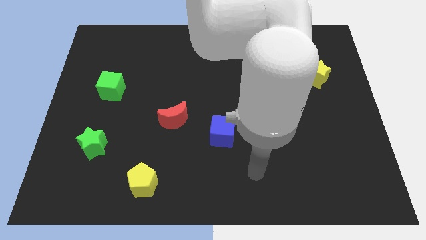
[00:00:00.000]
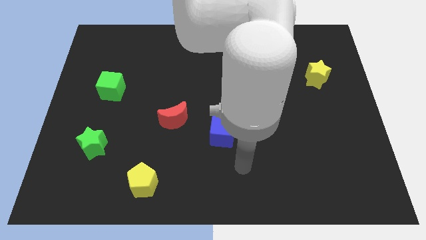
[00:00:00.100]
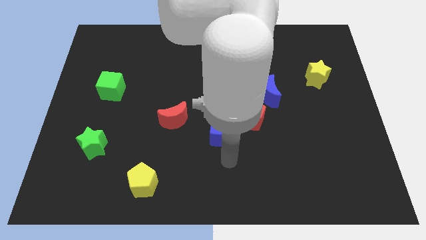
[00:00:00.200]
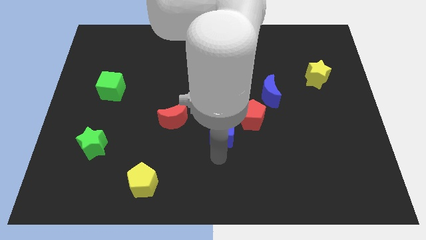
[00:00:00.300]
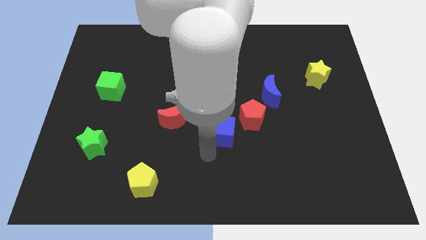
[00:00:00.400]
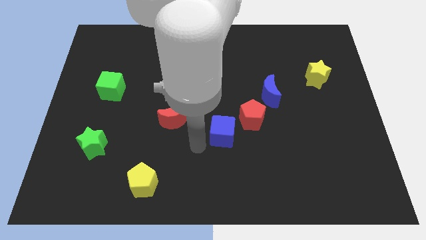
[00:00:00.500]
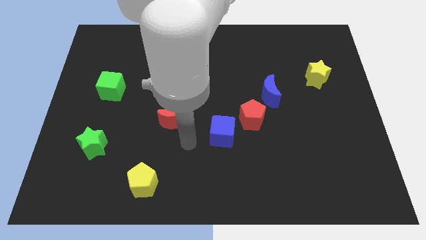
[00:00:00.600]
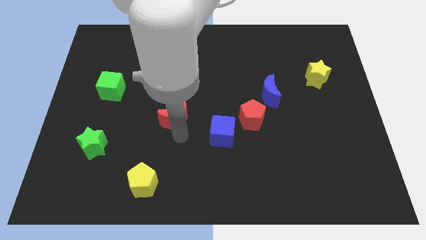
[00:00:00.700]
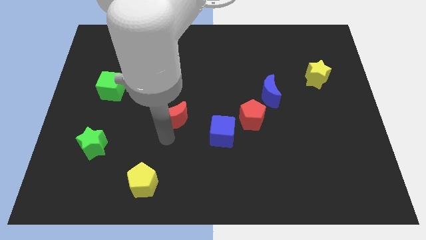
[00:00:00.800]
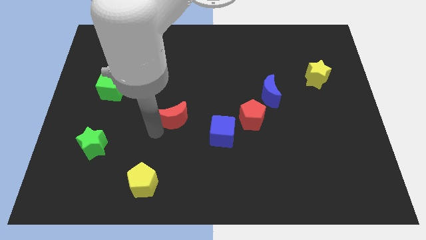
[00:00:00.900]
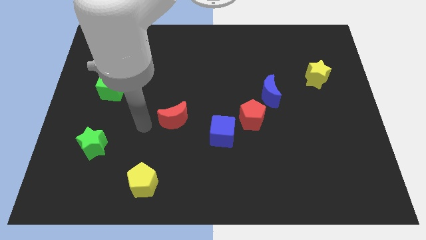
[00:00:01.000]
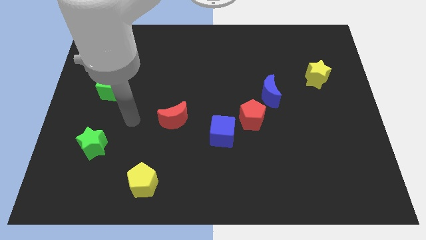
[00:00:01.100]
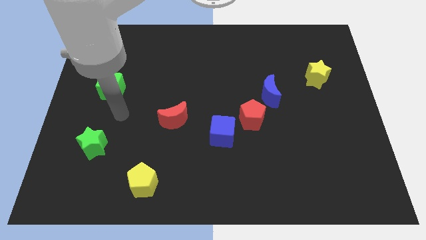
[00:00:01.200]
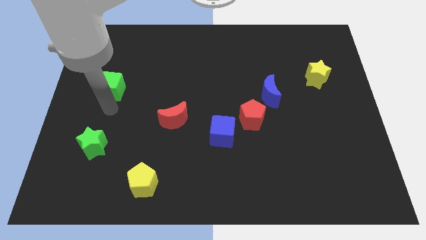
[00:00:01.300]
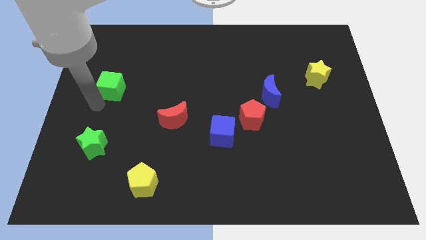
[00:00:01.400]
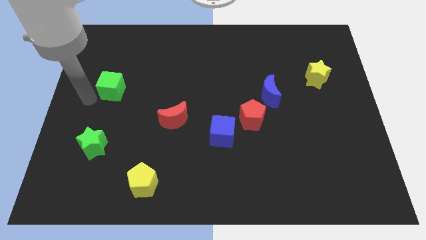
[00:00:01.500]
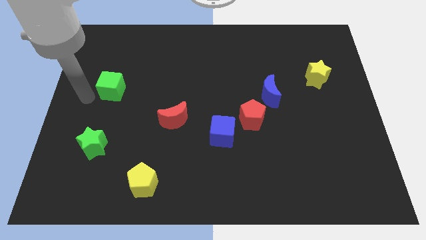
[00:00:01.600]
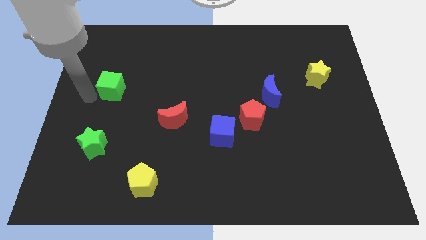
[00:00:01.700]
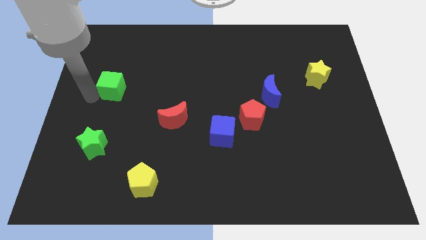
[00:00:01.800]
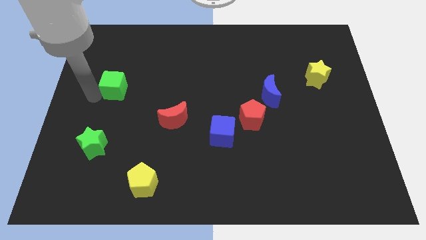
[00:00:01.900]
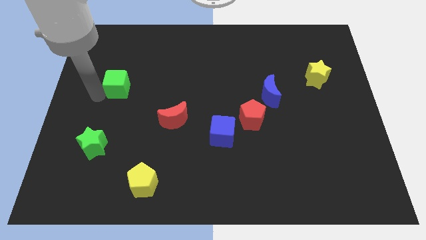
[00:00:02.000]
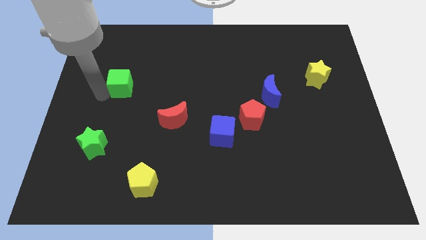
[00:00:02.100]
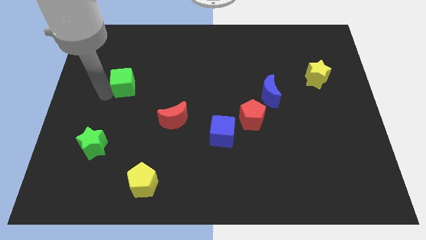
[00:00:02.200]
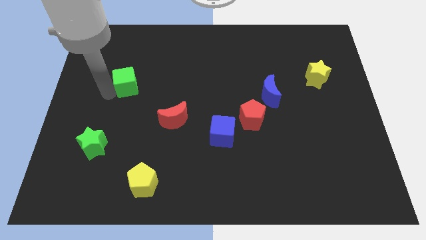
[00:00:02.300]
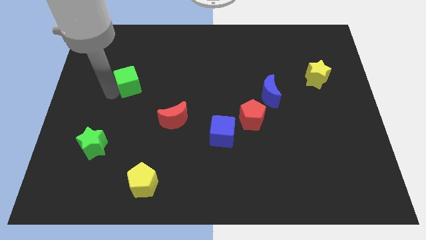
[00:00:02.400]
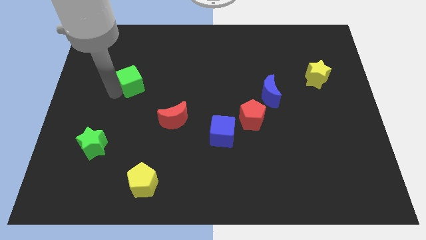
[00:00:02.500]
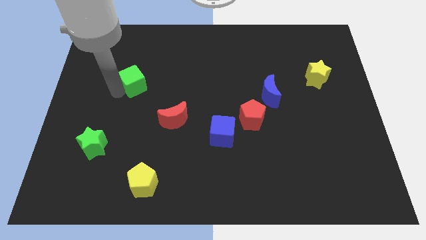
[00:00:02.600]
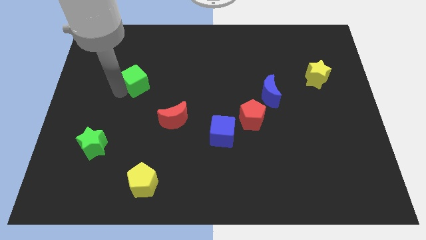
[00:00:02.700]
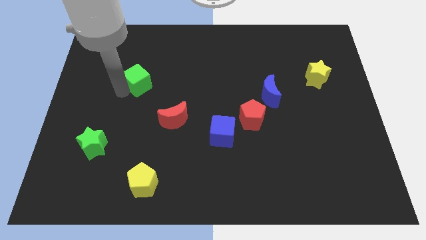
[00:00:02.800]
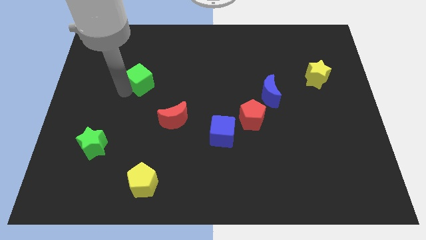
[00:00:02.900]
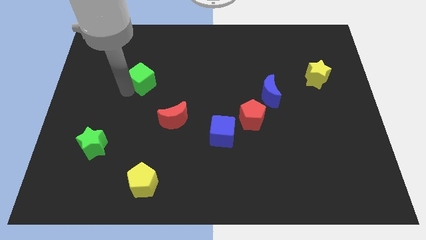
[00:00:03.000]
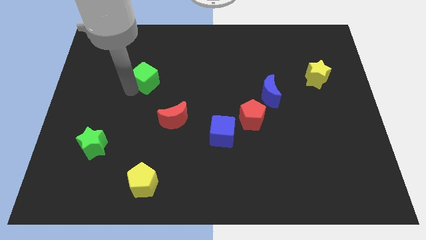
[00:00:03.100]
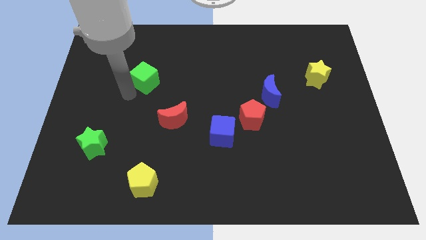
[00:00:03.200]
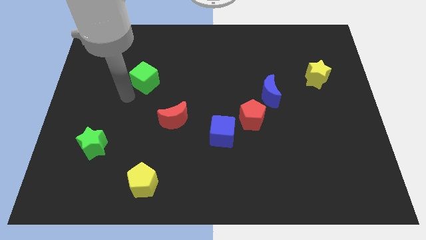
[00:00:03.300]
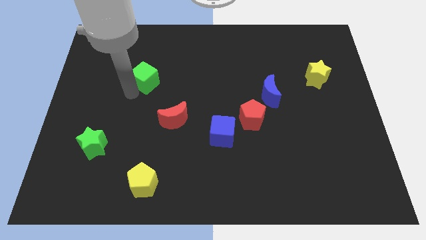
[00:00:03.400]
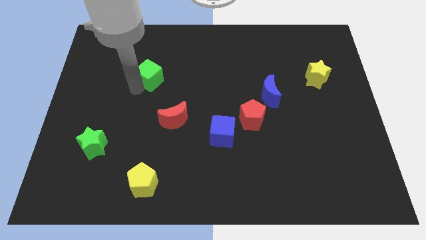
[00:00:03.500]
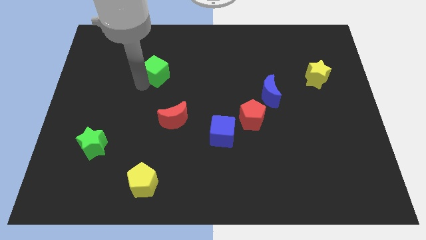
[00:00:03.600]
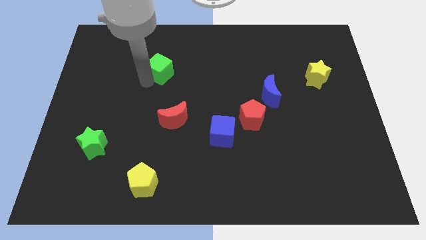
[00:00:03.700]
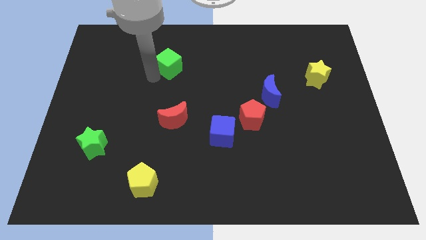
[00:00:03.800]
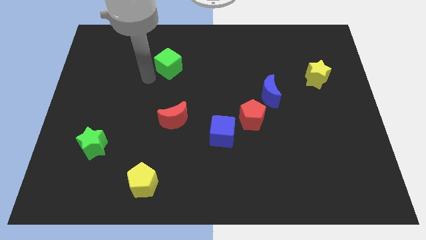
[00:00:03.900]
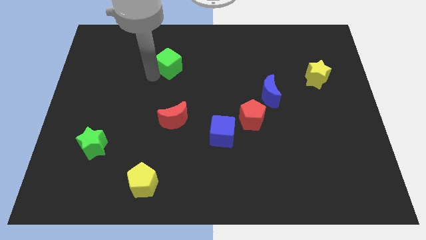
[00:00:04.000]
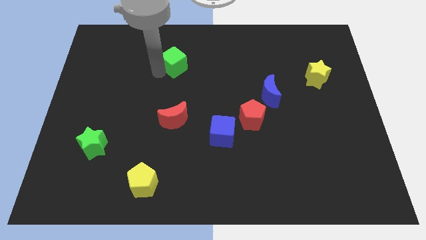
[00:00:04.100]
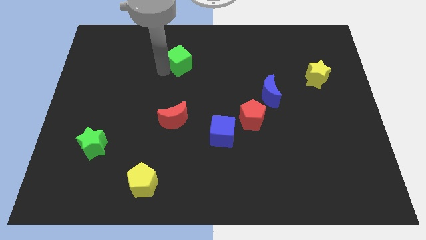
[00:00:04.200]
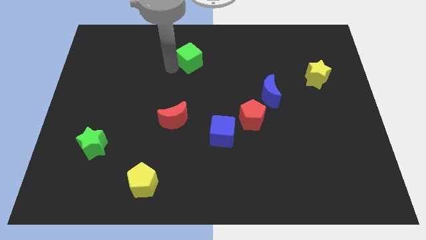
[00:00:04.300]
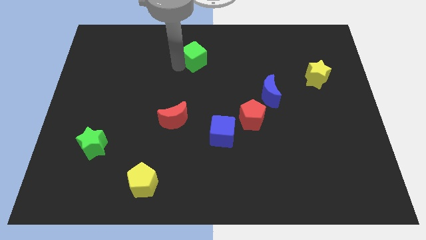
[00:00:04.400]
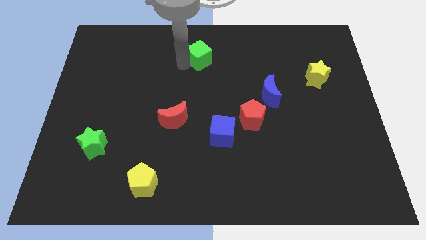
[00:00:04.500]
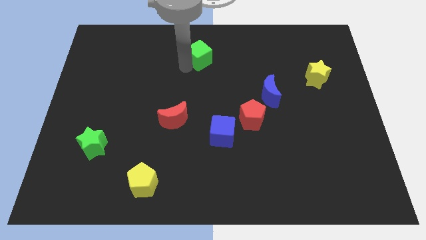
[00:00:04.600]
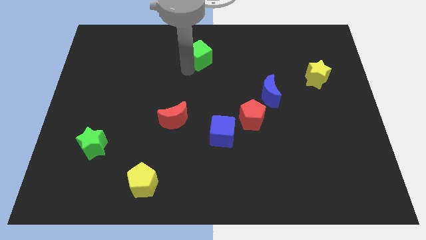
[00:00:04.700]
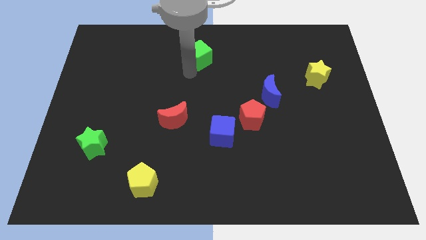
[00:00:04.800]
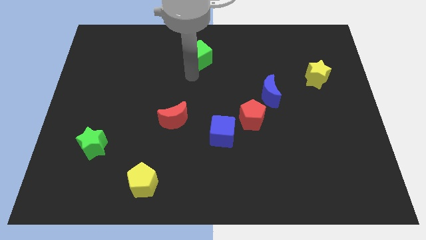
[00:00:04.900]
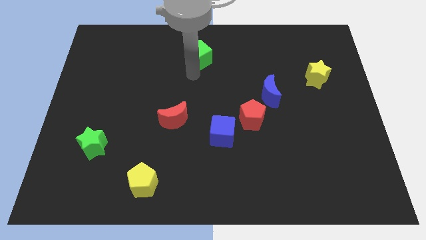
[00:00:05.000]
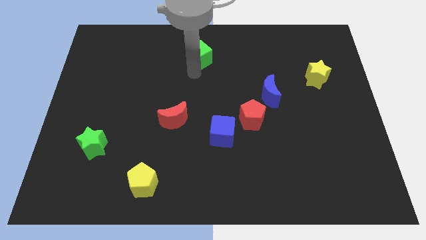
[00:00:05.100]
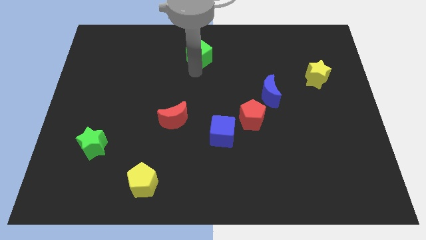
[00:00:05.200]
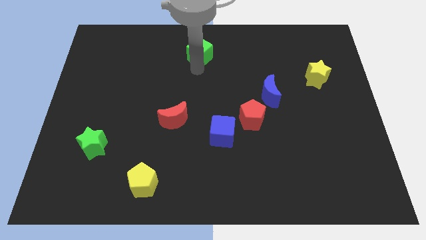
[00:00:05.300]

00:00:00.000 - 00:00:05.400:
push the green cube to the towards your base

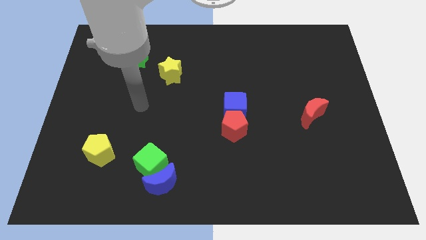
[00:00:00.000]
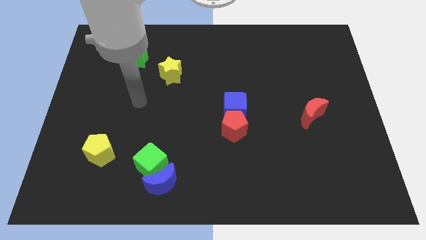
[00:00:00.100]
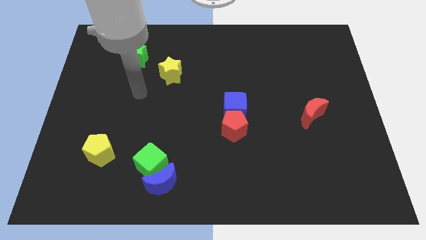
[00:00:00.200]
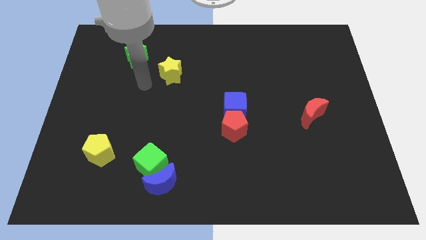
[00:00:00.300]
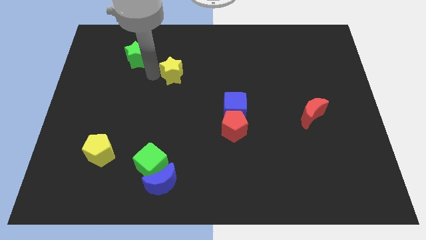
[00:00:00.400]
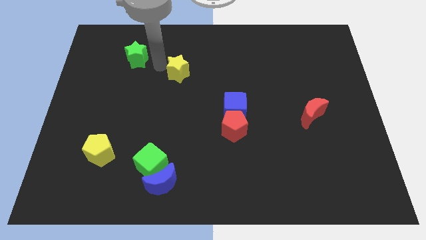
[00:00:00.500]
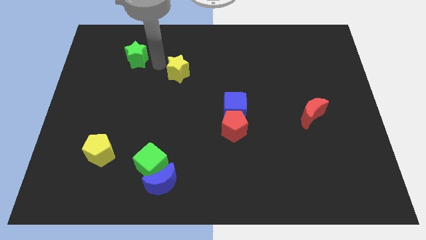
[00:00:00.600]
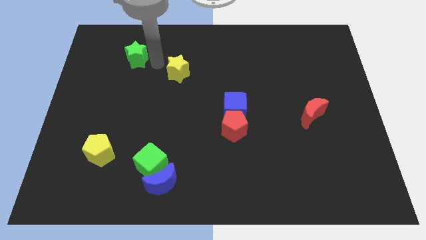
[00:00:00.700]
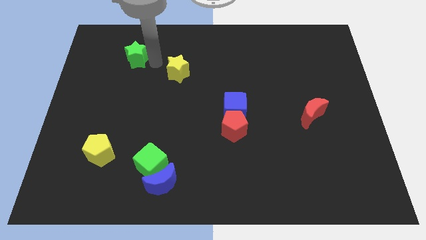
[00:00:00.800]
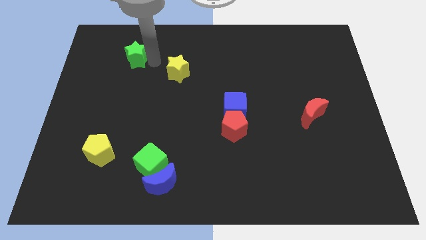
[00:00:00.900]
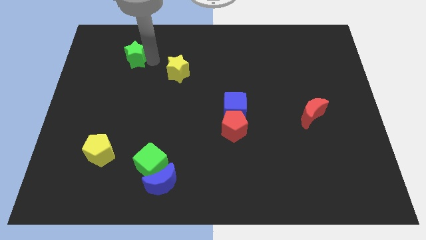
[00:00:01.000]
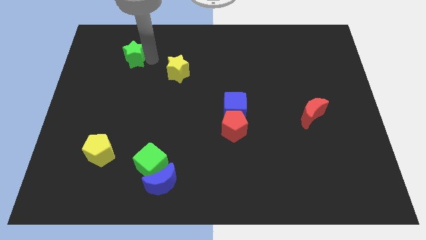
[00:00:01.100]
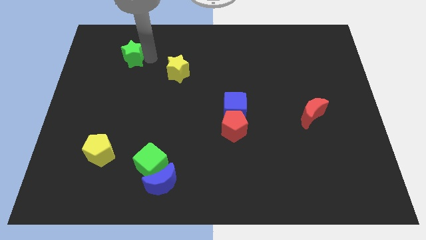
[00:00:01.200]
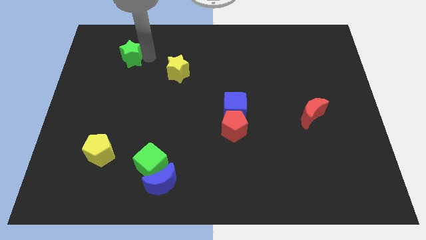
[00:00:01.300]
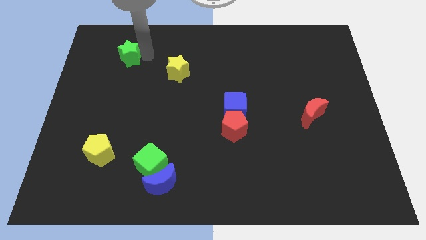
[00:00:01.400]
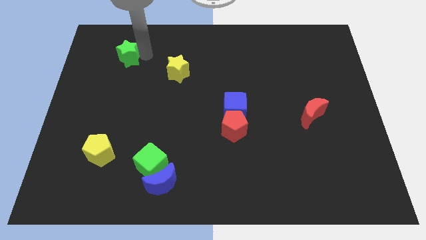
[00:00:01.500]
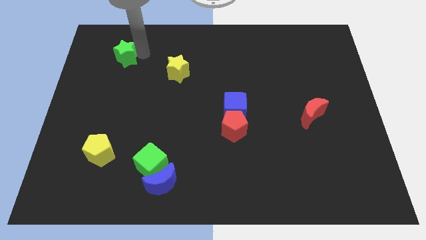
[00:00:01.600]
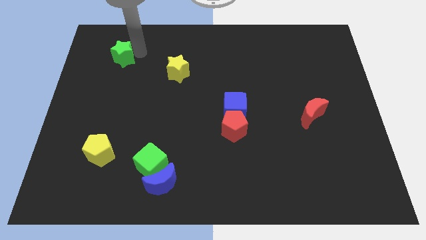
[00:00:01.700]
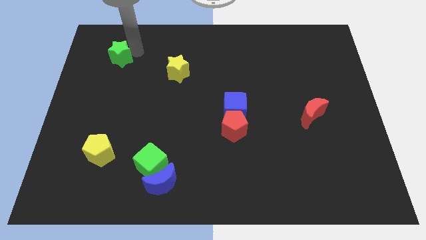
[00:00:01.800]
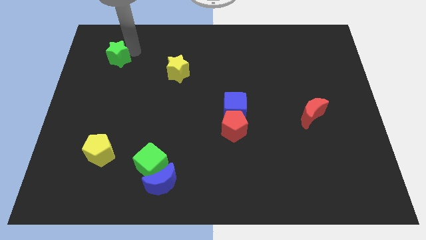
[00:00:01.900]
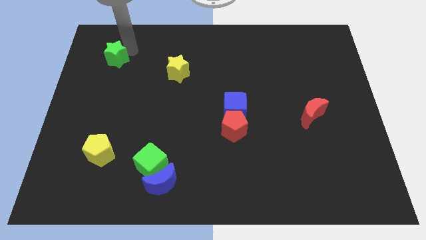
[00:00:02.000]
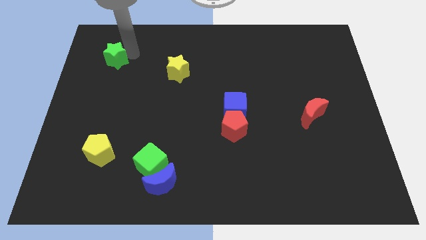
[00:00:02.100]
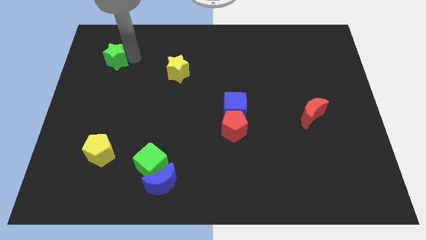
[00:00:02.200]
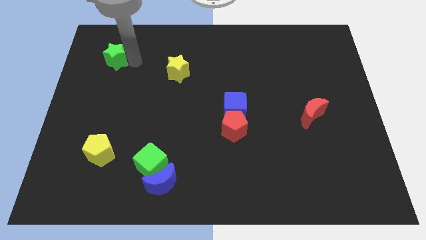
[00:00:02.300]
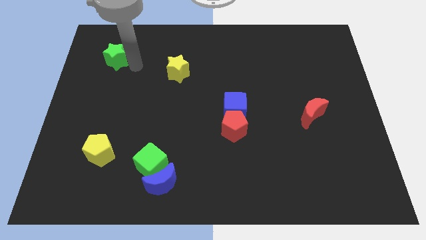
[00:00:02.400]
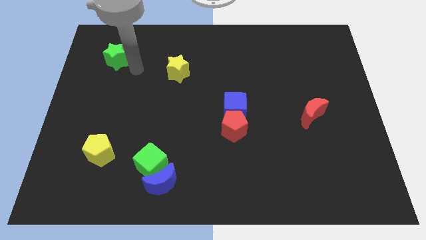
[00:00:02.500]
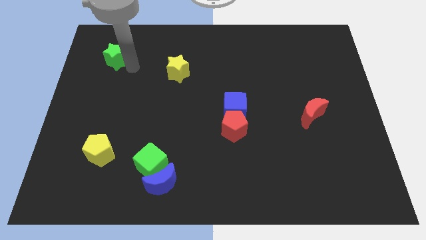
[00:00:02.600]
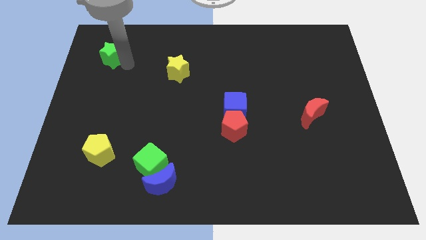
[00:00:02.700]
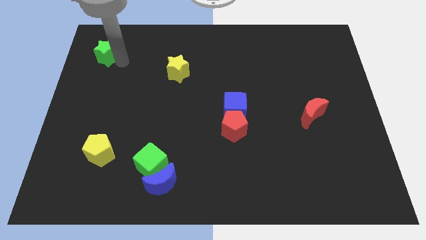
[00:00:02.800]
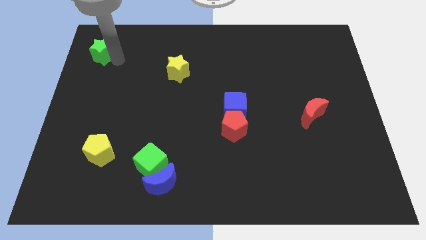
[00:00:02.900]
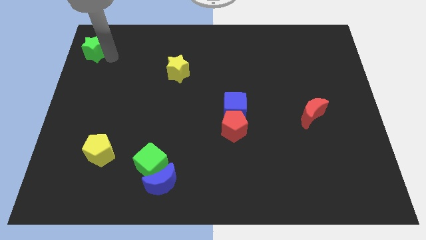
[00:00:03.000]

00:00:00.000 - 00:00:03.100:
push the green star to the top left
